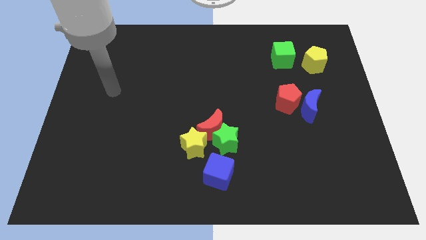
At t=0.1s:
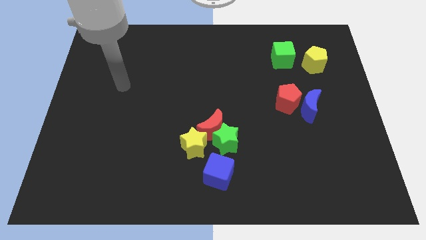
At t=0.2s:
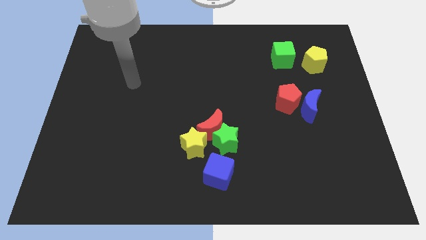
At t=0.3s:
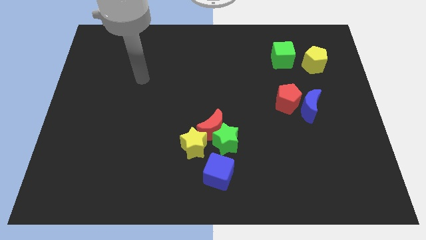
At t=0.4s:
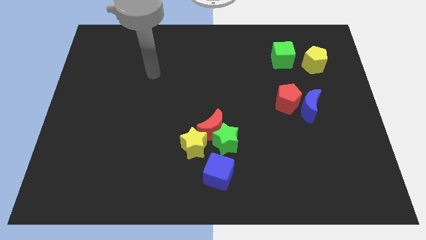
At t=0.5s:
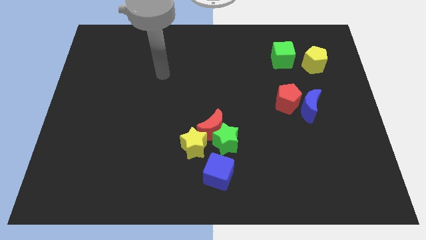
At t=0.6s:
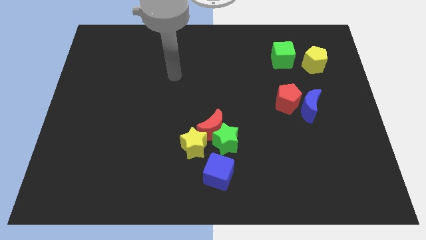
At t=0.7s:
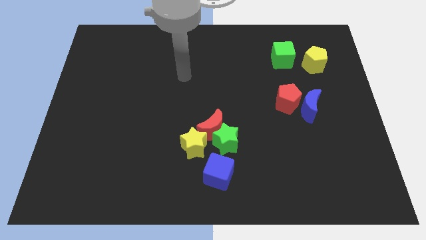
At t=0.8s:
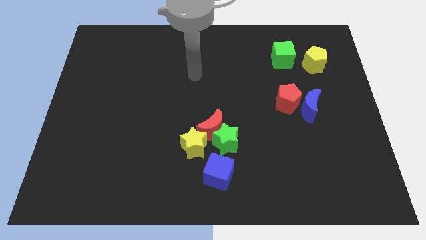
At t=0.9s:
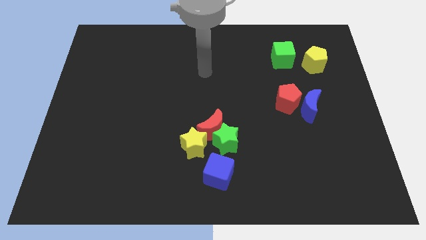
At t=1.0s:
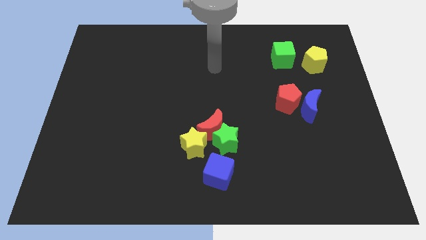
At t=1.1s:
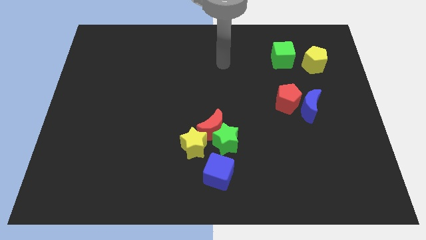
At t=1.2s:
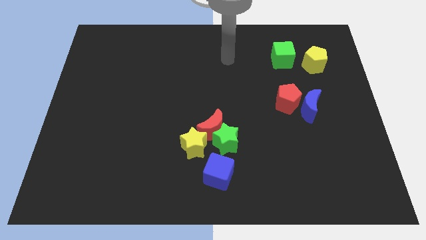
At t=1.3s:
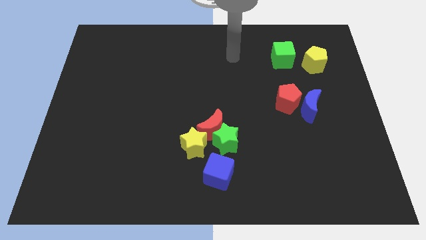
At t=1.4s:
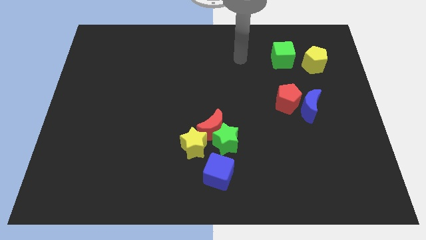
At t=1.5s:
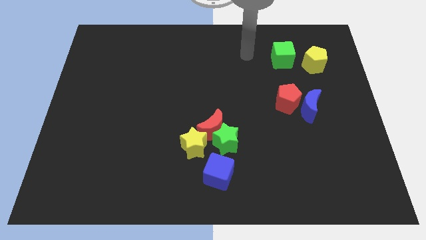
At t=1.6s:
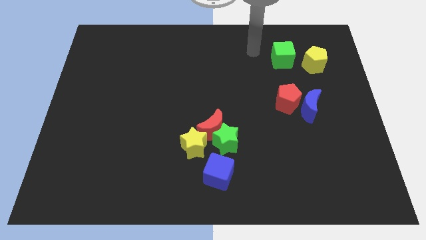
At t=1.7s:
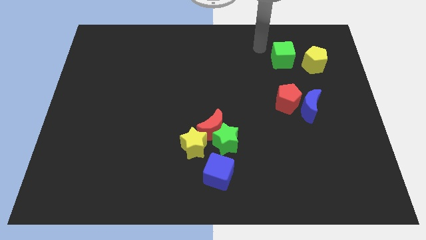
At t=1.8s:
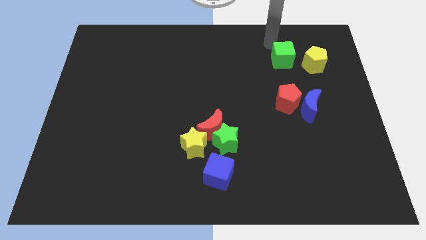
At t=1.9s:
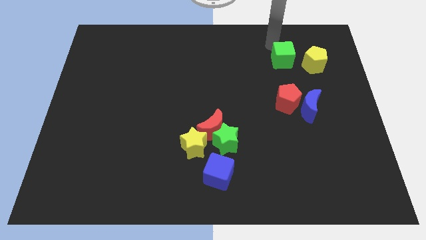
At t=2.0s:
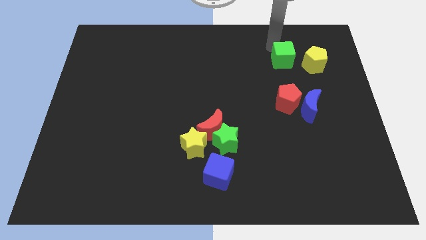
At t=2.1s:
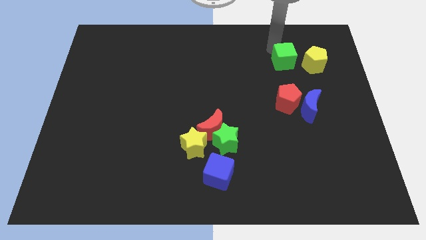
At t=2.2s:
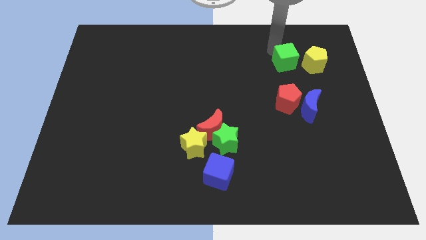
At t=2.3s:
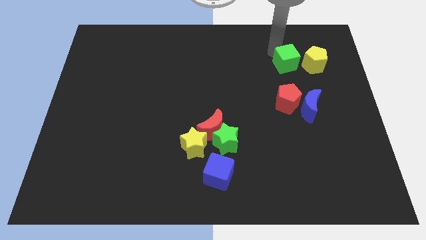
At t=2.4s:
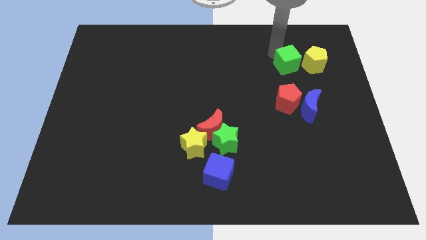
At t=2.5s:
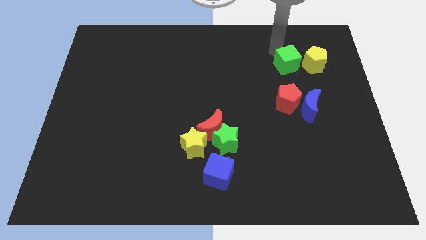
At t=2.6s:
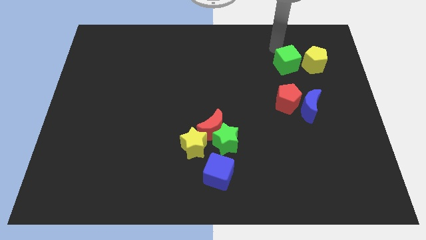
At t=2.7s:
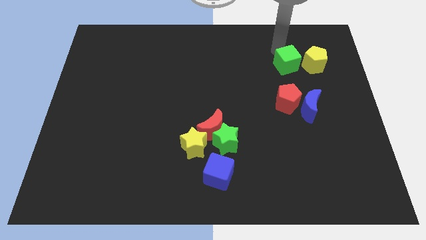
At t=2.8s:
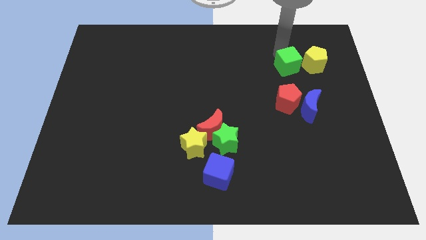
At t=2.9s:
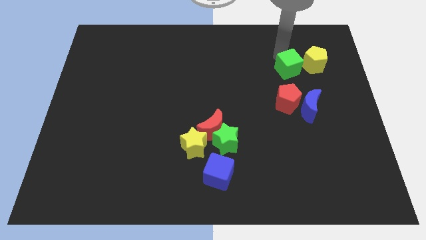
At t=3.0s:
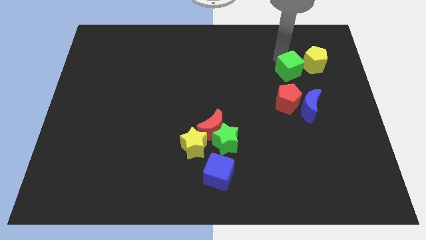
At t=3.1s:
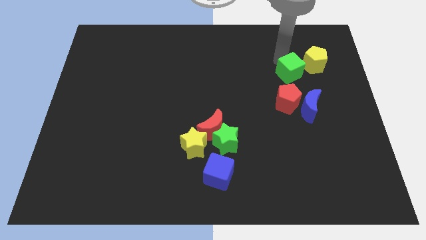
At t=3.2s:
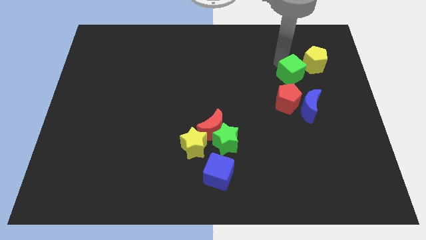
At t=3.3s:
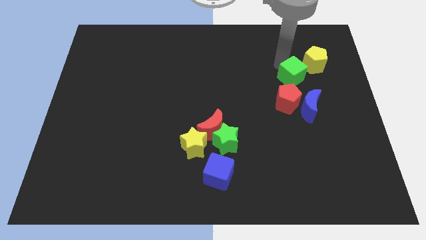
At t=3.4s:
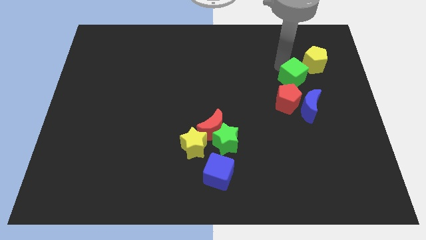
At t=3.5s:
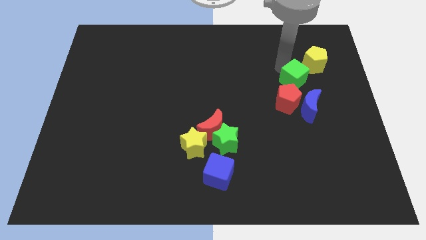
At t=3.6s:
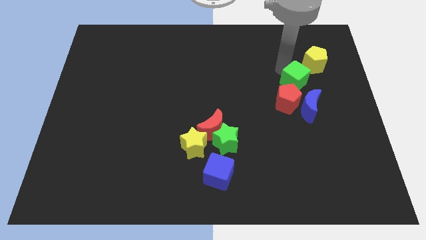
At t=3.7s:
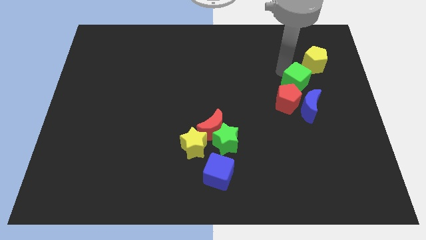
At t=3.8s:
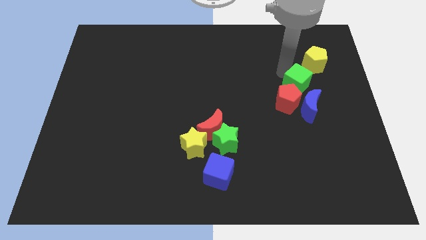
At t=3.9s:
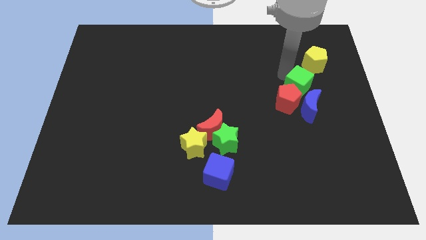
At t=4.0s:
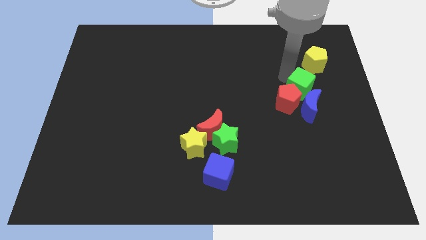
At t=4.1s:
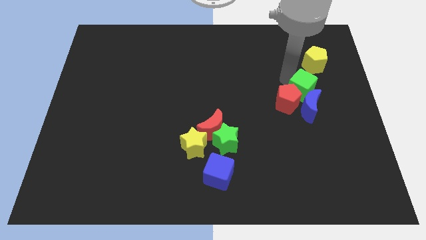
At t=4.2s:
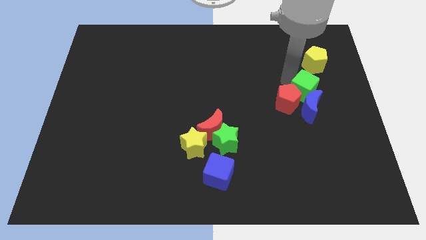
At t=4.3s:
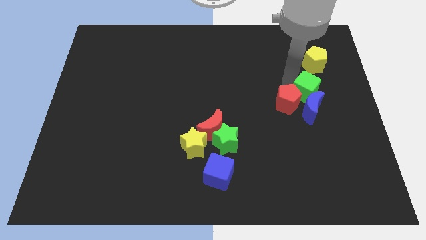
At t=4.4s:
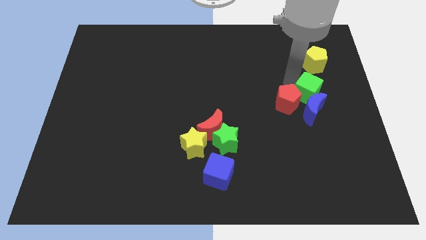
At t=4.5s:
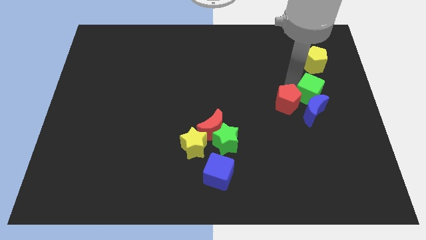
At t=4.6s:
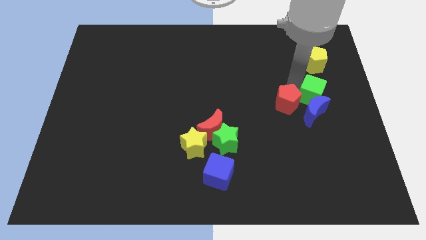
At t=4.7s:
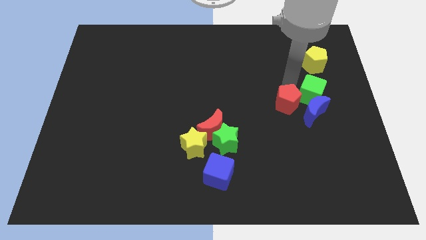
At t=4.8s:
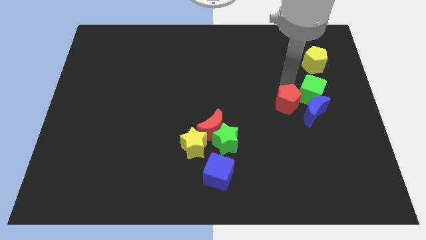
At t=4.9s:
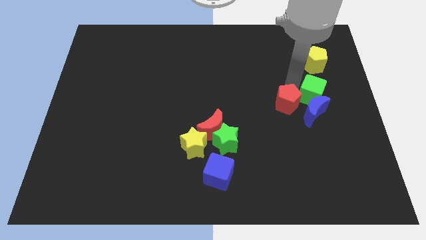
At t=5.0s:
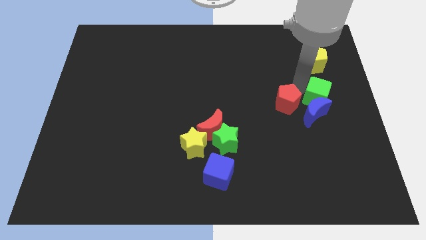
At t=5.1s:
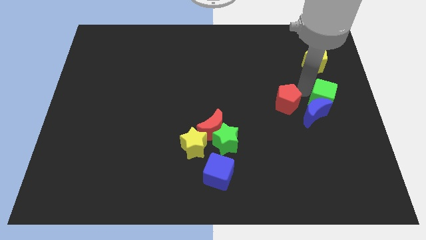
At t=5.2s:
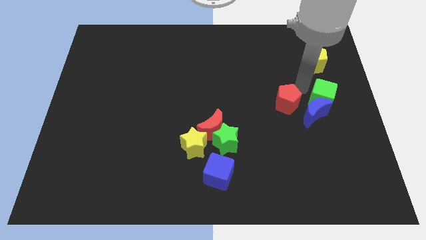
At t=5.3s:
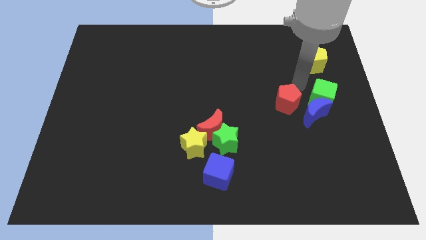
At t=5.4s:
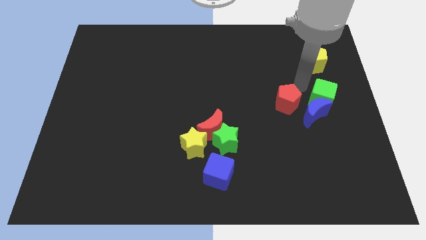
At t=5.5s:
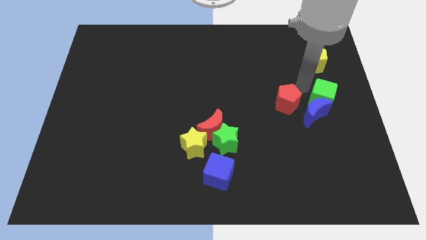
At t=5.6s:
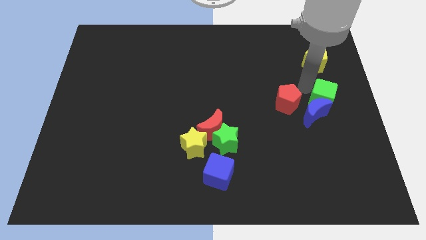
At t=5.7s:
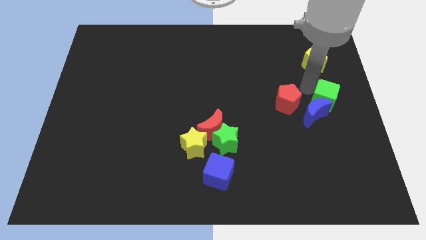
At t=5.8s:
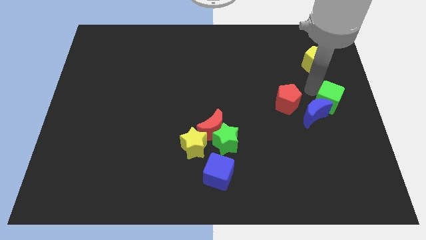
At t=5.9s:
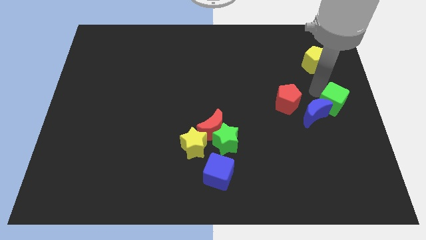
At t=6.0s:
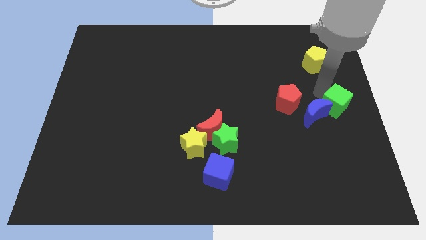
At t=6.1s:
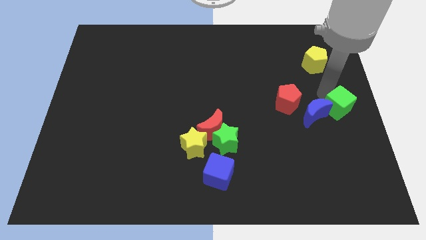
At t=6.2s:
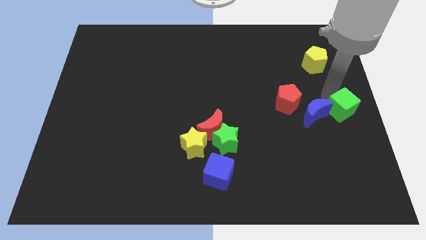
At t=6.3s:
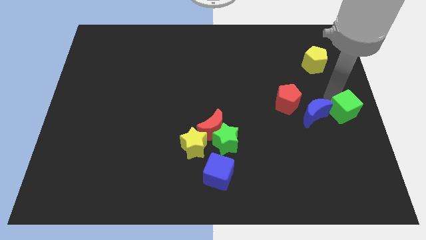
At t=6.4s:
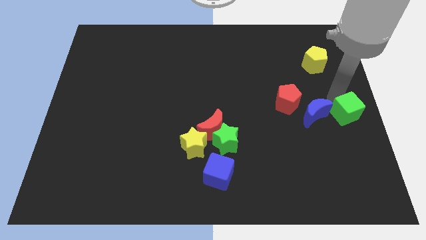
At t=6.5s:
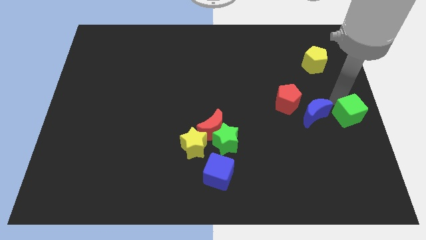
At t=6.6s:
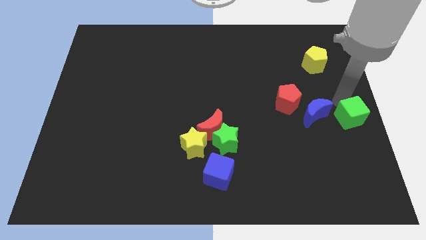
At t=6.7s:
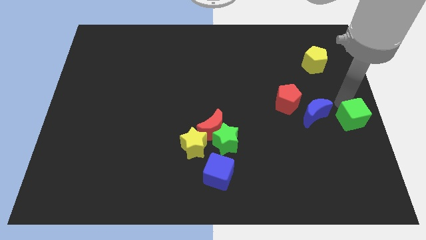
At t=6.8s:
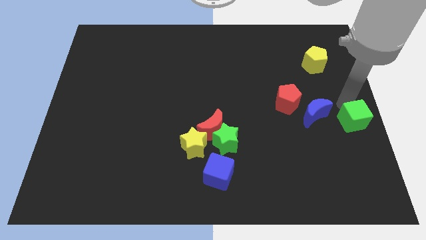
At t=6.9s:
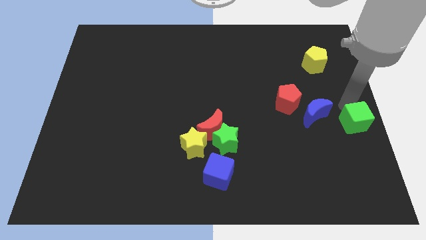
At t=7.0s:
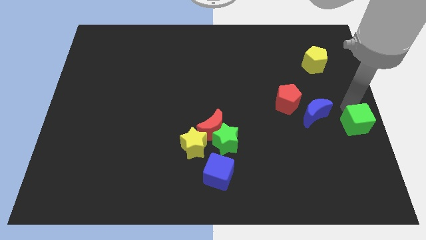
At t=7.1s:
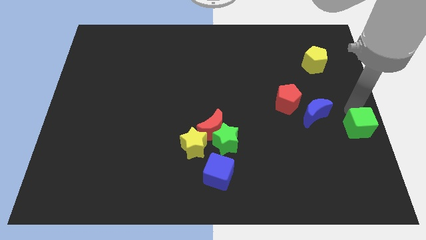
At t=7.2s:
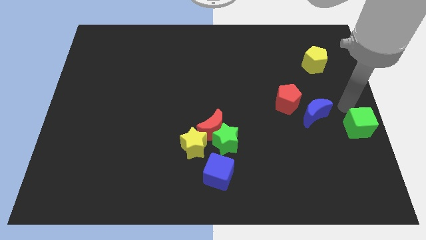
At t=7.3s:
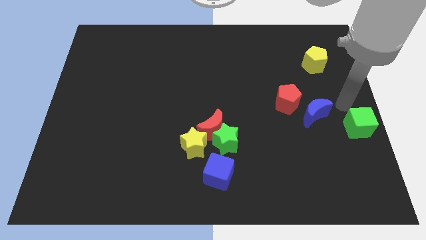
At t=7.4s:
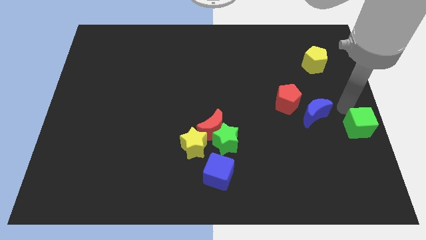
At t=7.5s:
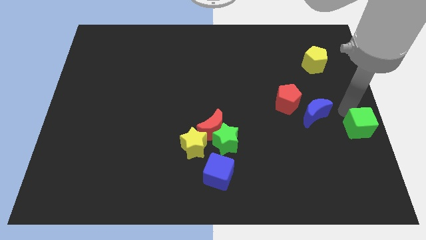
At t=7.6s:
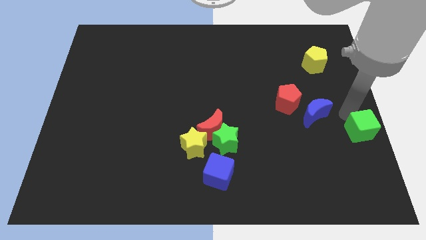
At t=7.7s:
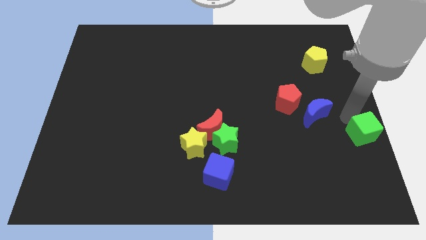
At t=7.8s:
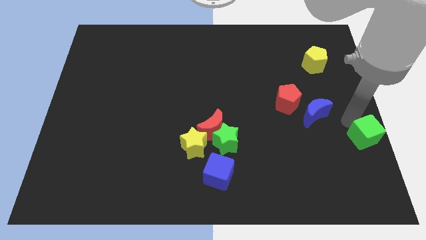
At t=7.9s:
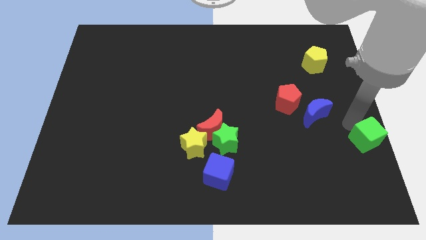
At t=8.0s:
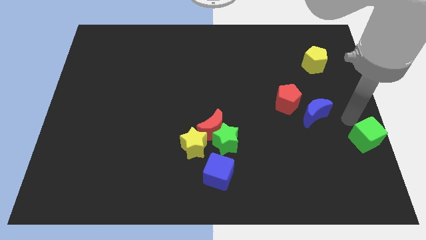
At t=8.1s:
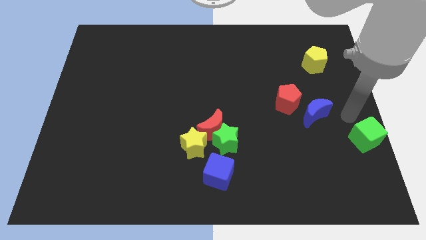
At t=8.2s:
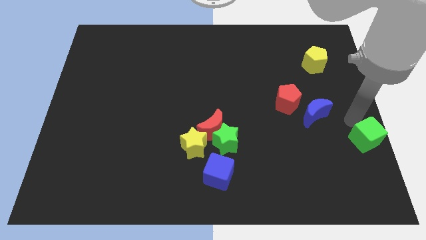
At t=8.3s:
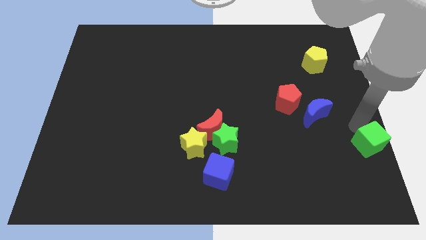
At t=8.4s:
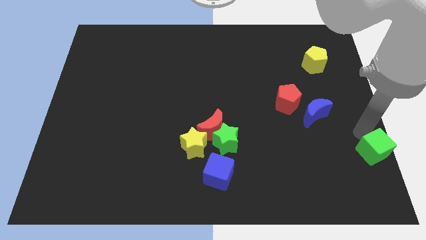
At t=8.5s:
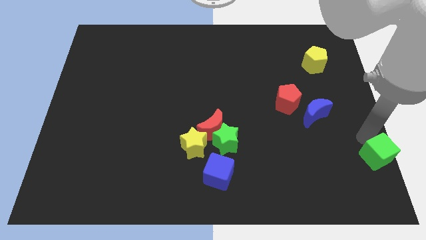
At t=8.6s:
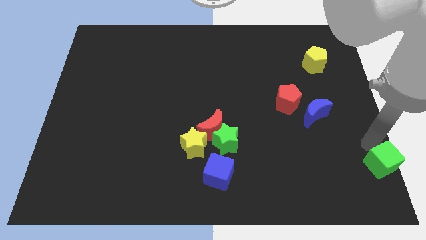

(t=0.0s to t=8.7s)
move the green cube to the lower right corner
